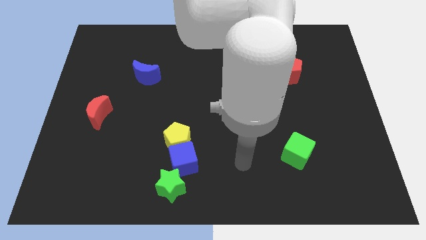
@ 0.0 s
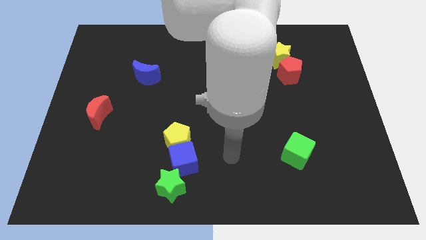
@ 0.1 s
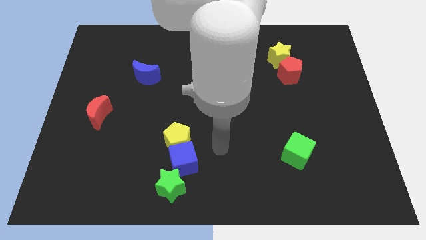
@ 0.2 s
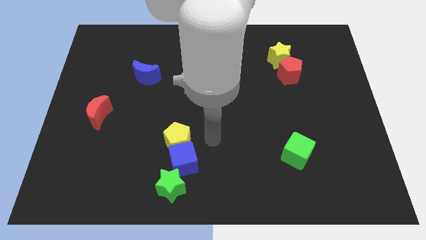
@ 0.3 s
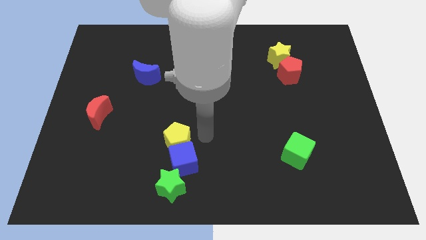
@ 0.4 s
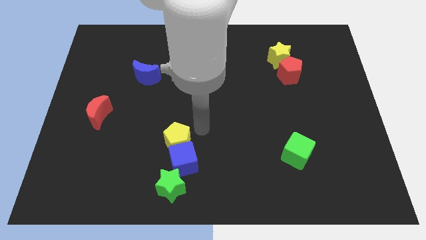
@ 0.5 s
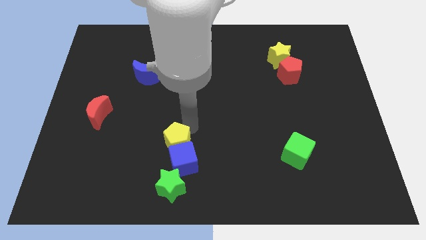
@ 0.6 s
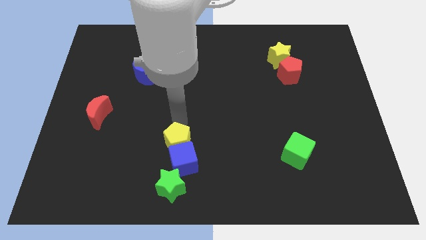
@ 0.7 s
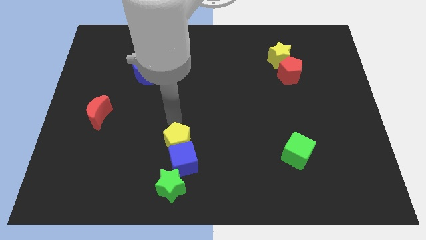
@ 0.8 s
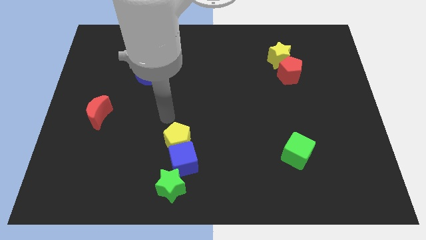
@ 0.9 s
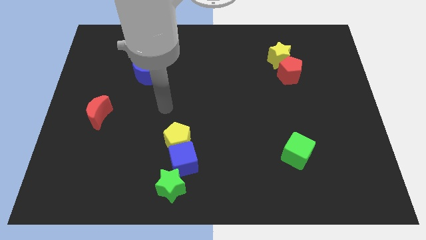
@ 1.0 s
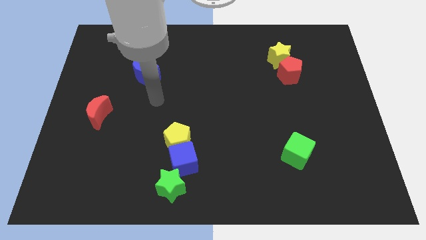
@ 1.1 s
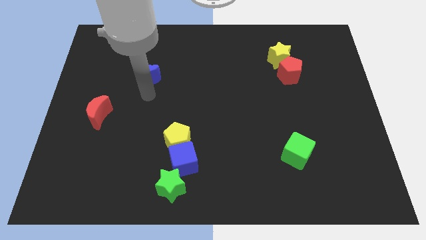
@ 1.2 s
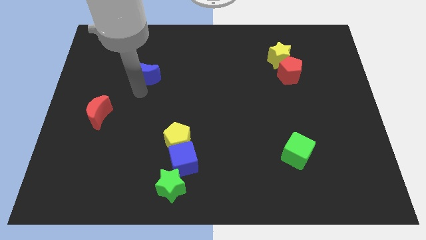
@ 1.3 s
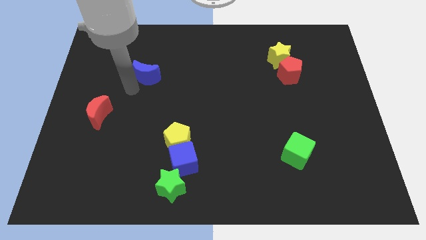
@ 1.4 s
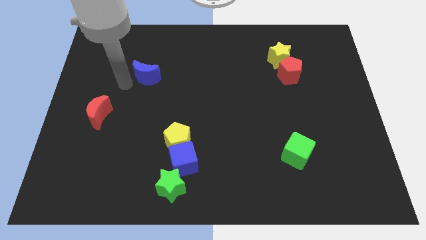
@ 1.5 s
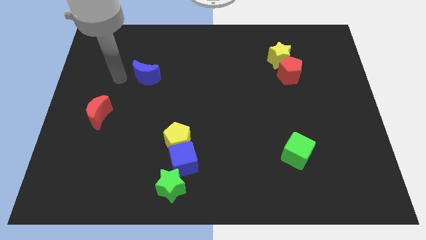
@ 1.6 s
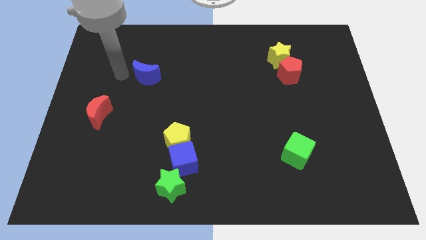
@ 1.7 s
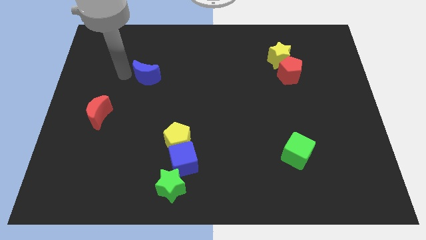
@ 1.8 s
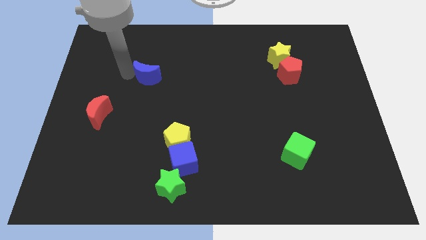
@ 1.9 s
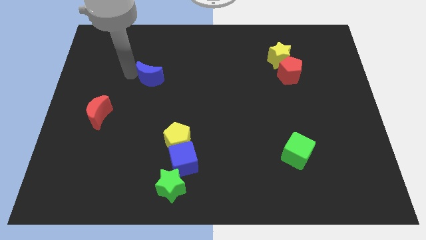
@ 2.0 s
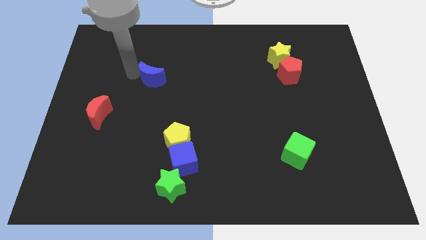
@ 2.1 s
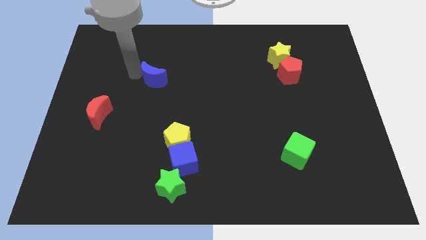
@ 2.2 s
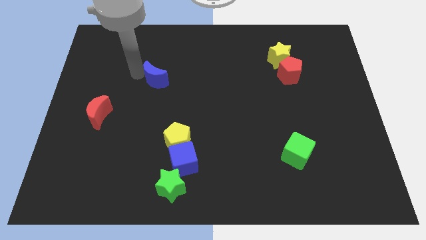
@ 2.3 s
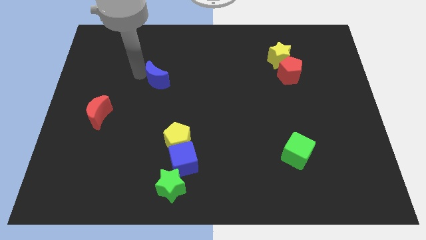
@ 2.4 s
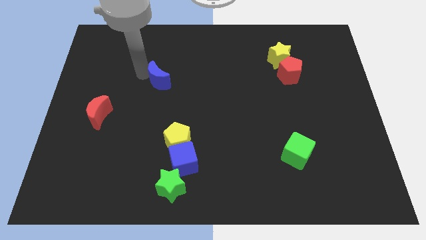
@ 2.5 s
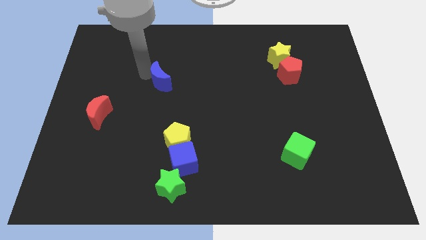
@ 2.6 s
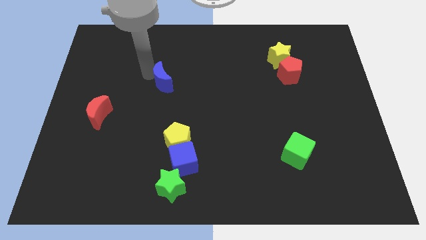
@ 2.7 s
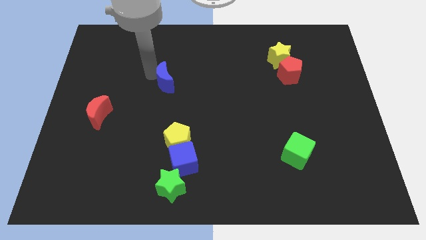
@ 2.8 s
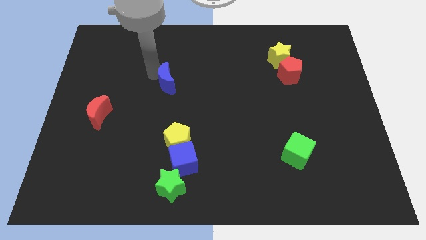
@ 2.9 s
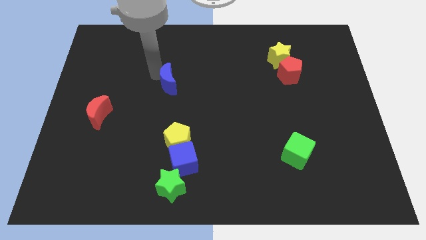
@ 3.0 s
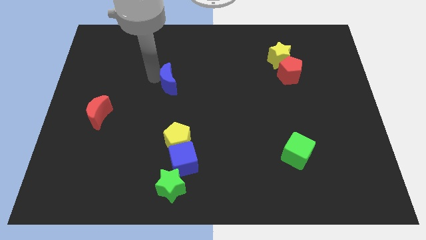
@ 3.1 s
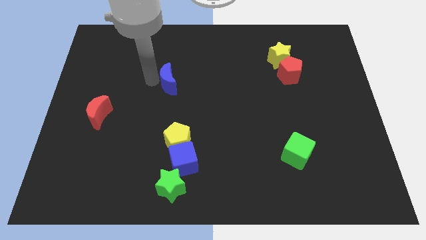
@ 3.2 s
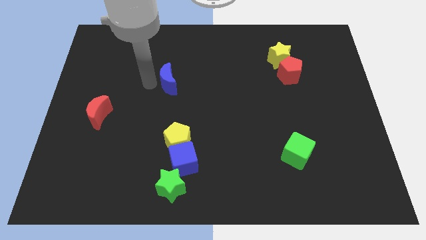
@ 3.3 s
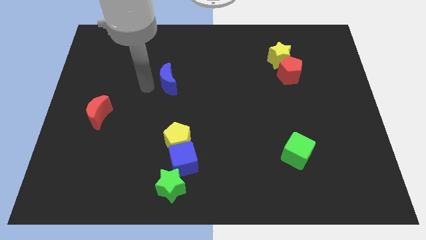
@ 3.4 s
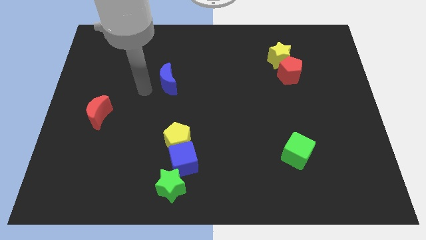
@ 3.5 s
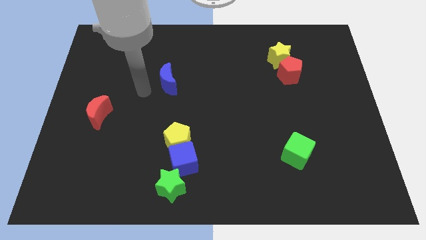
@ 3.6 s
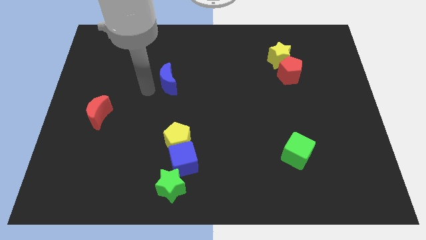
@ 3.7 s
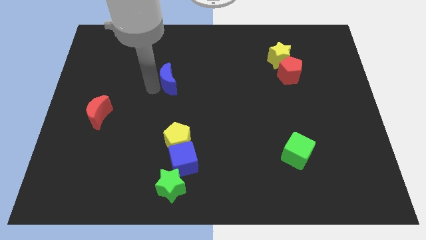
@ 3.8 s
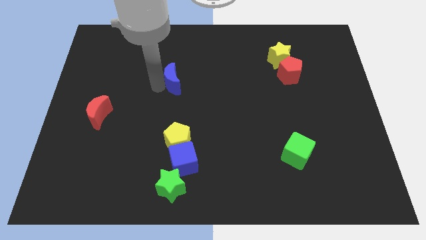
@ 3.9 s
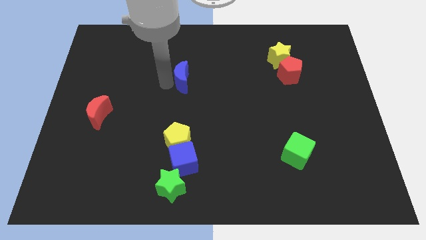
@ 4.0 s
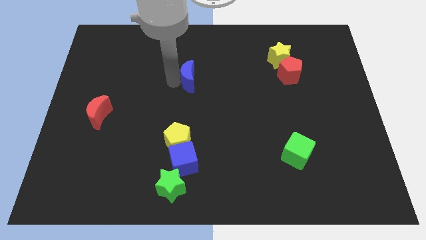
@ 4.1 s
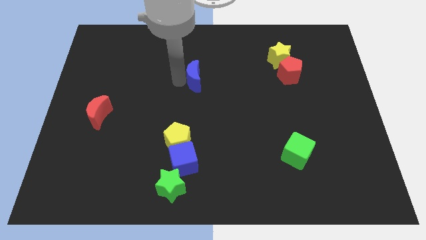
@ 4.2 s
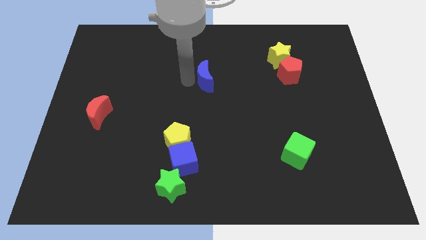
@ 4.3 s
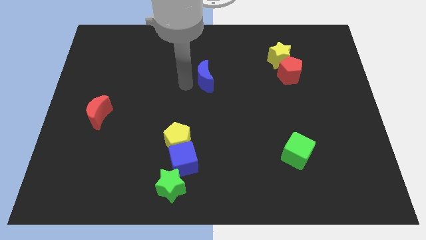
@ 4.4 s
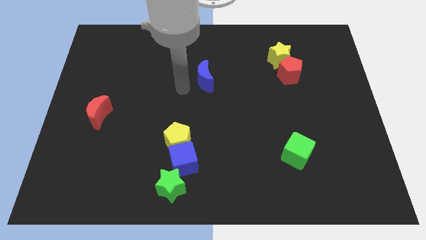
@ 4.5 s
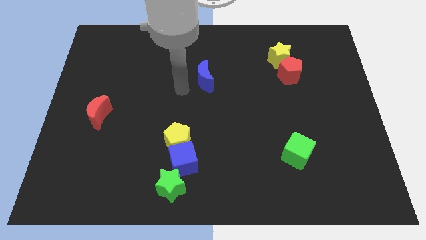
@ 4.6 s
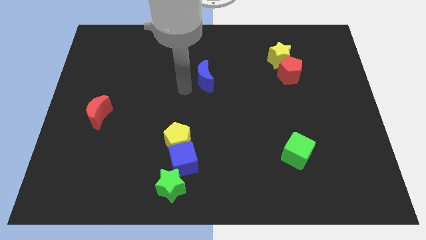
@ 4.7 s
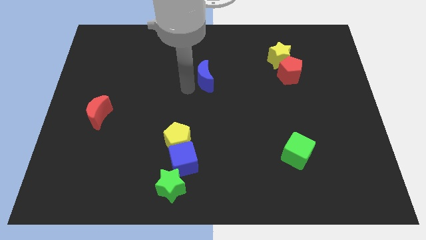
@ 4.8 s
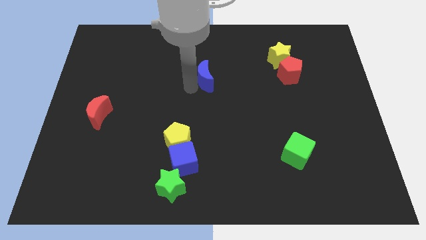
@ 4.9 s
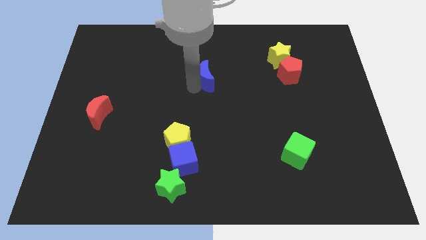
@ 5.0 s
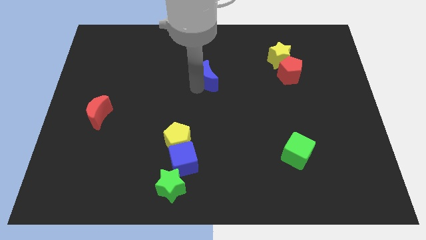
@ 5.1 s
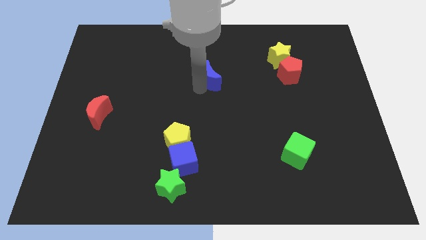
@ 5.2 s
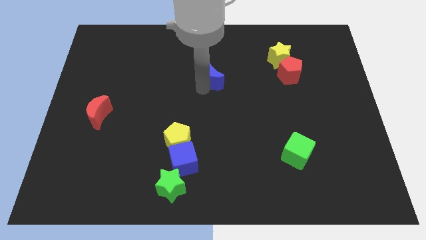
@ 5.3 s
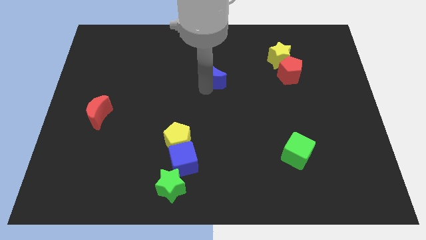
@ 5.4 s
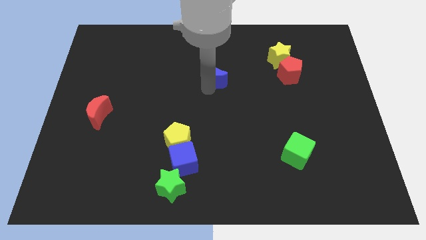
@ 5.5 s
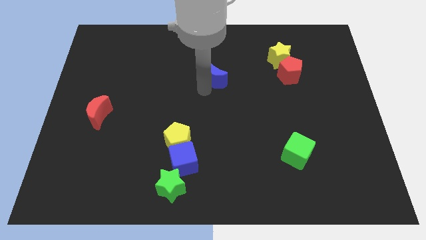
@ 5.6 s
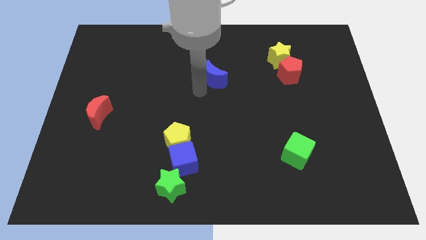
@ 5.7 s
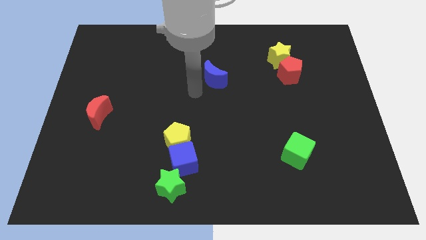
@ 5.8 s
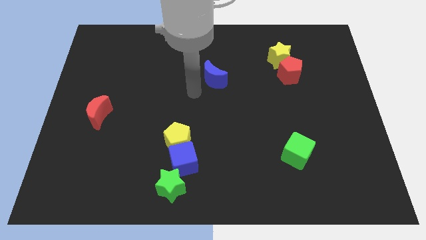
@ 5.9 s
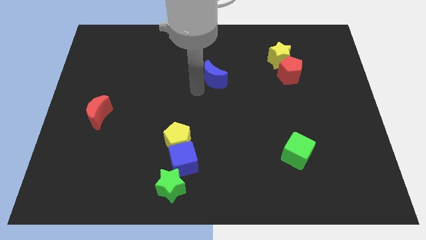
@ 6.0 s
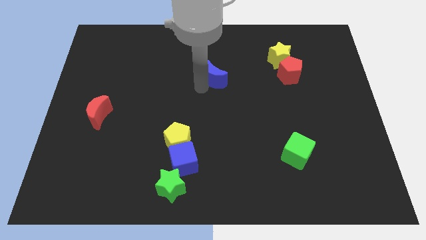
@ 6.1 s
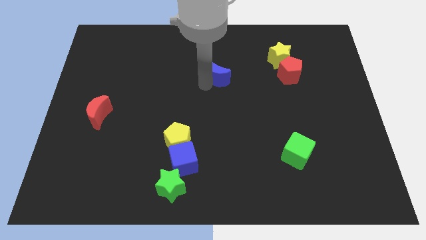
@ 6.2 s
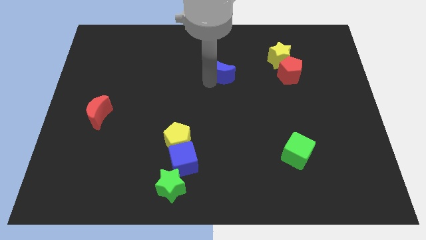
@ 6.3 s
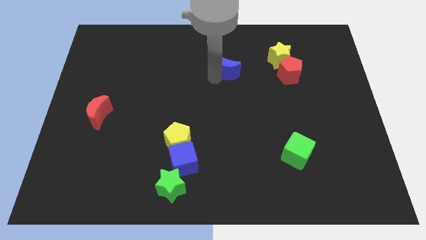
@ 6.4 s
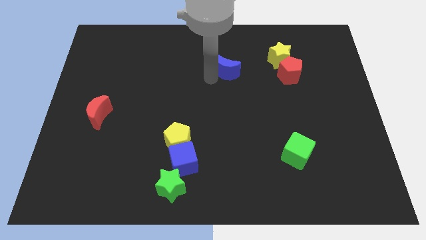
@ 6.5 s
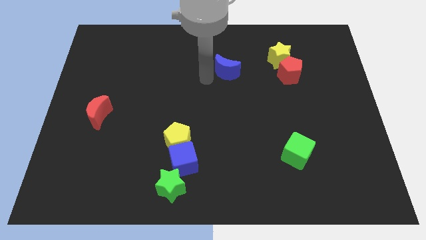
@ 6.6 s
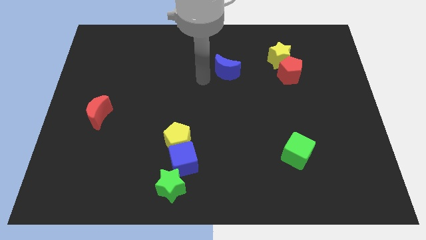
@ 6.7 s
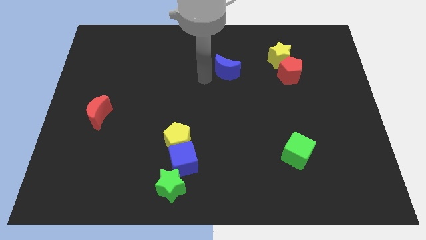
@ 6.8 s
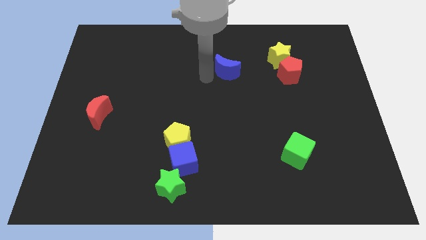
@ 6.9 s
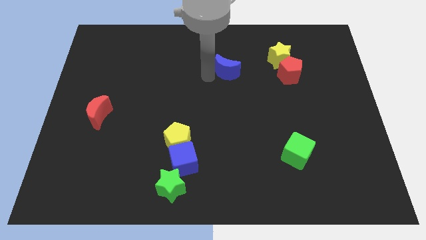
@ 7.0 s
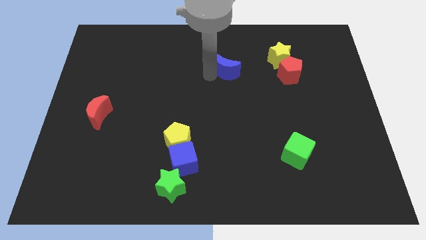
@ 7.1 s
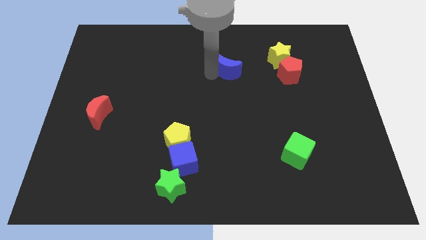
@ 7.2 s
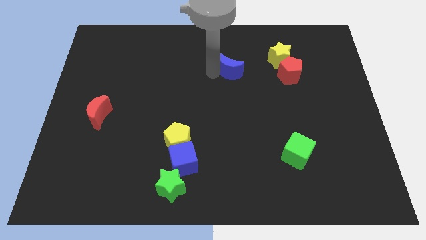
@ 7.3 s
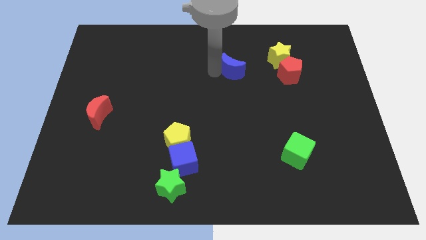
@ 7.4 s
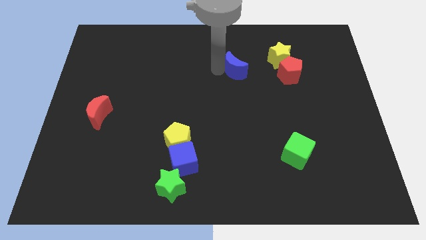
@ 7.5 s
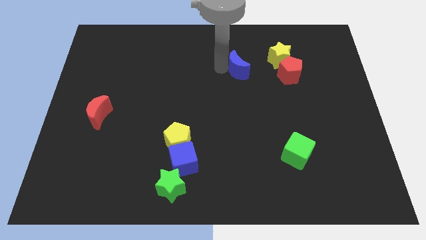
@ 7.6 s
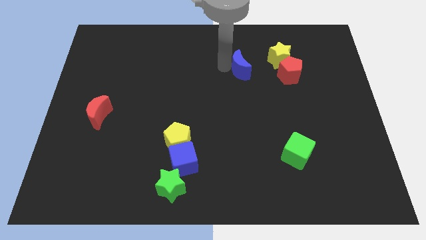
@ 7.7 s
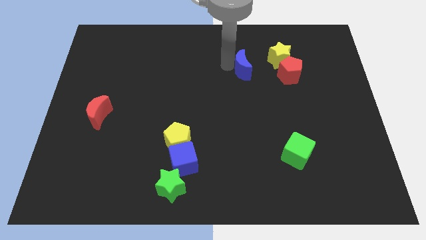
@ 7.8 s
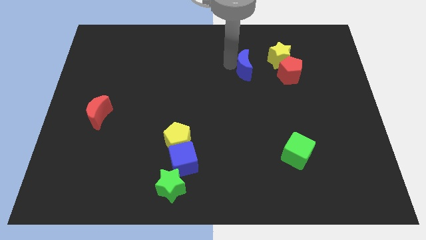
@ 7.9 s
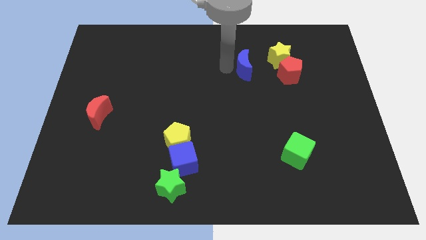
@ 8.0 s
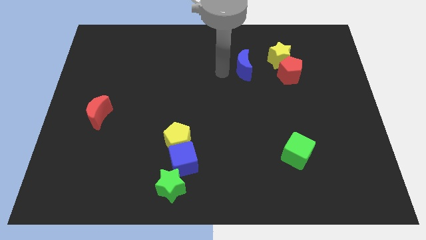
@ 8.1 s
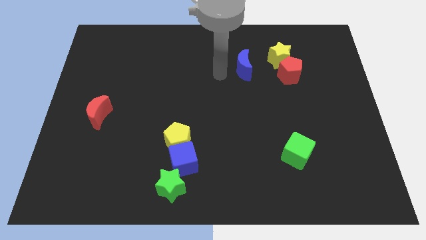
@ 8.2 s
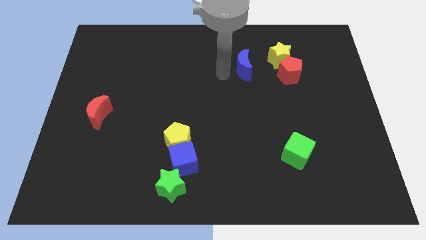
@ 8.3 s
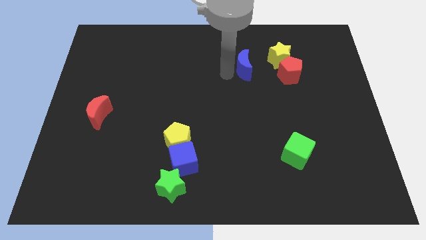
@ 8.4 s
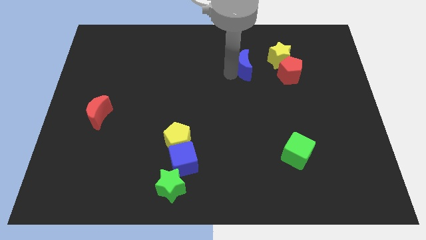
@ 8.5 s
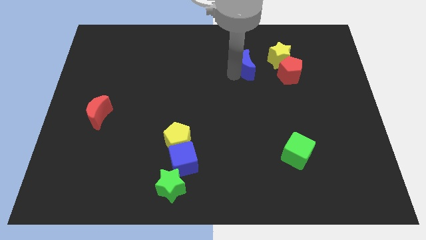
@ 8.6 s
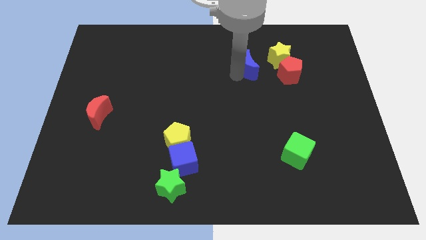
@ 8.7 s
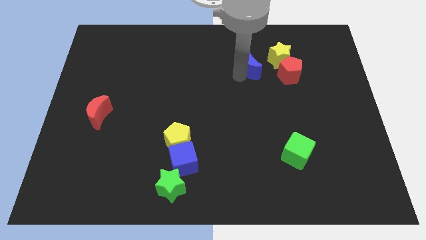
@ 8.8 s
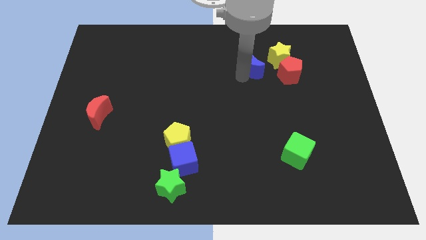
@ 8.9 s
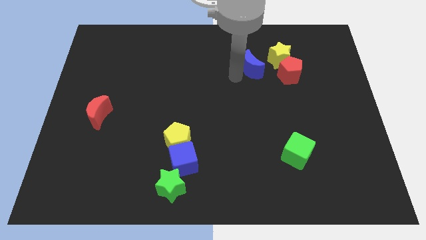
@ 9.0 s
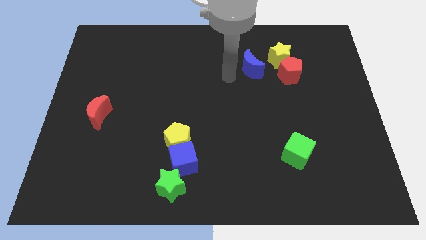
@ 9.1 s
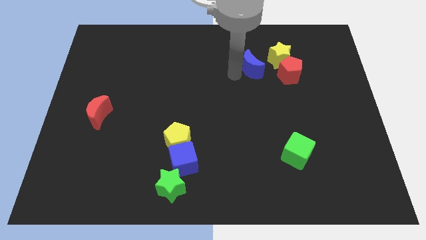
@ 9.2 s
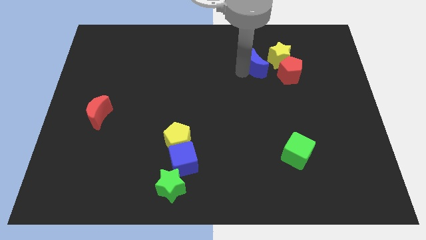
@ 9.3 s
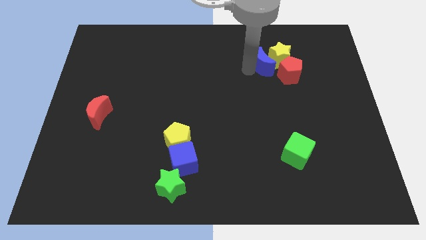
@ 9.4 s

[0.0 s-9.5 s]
slide the blue moon towards the yellow star
